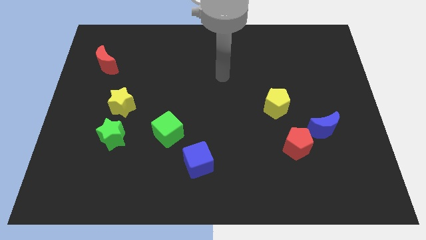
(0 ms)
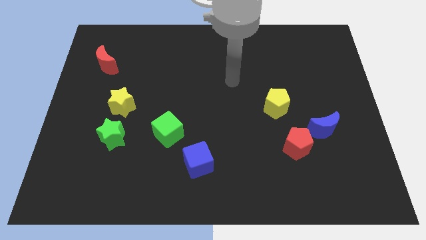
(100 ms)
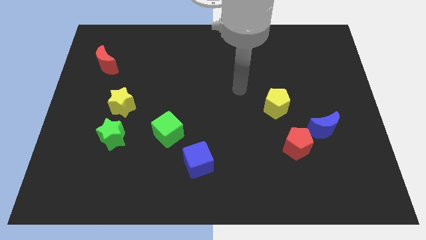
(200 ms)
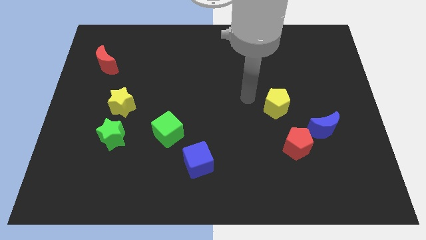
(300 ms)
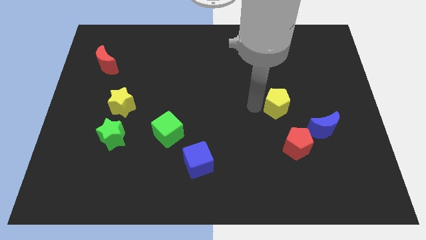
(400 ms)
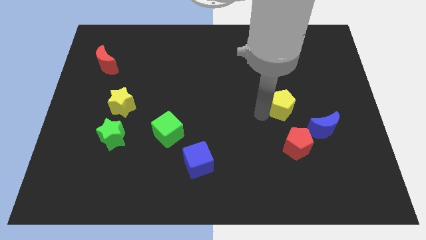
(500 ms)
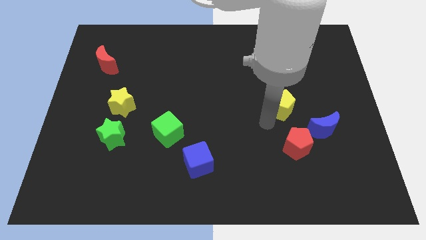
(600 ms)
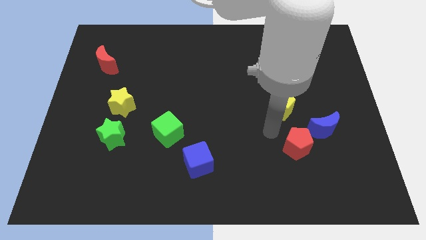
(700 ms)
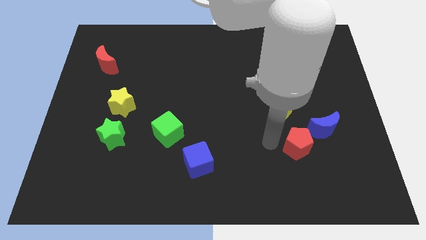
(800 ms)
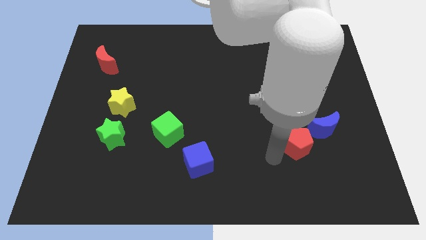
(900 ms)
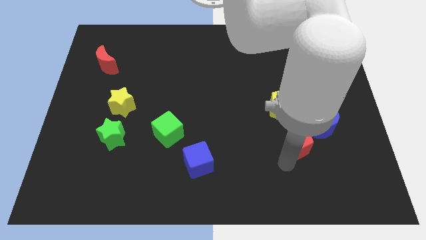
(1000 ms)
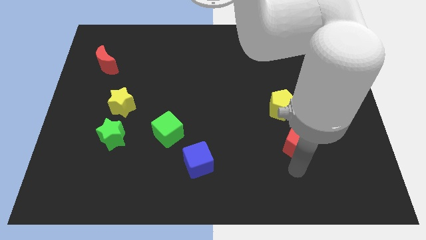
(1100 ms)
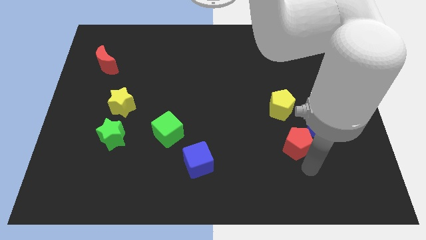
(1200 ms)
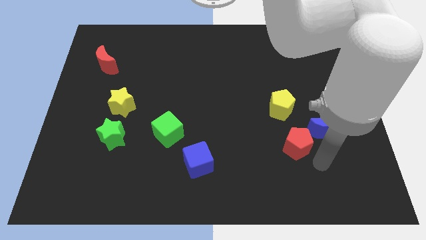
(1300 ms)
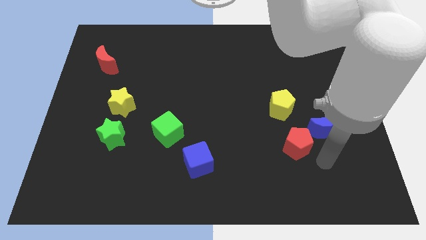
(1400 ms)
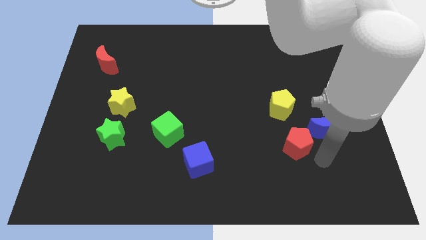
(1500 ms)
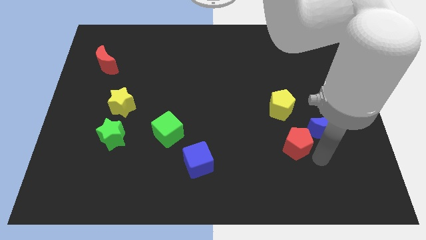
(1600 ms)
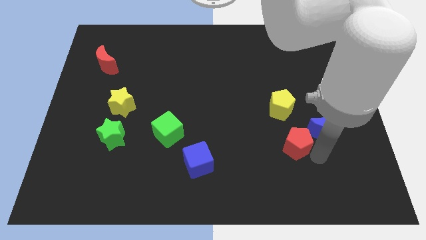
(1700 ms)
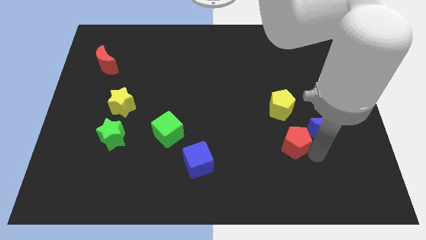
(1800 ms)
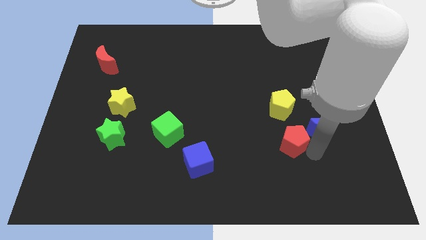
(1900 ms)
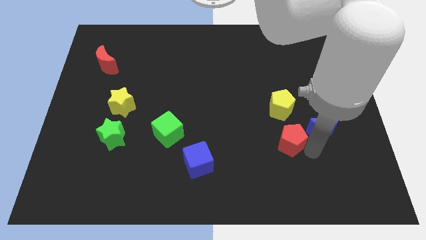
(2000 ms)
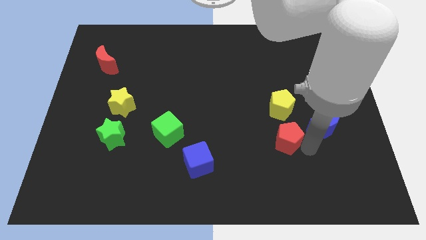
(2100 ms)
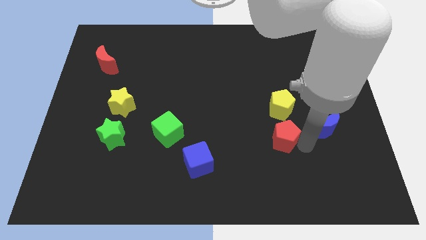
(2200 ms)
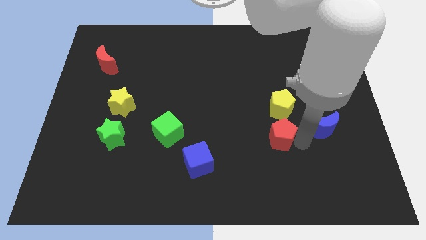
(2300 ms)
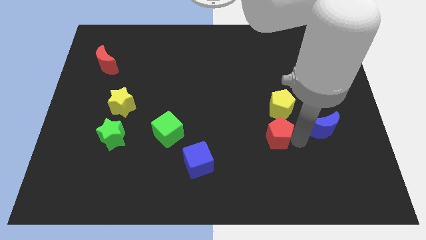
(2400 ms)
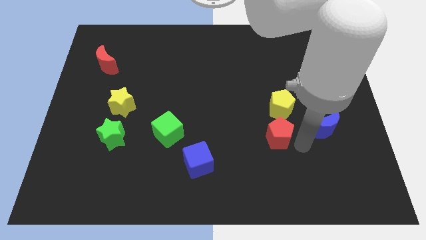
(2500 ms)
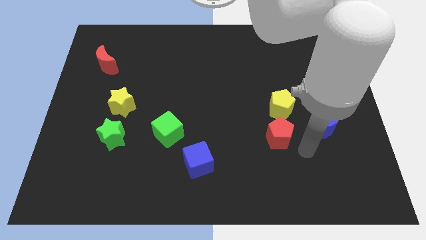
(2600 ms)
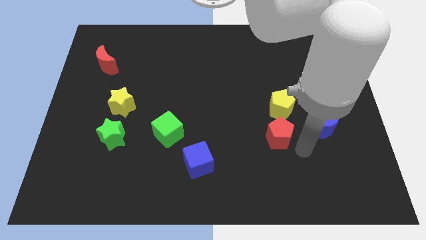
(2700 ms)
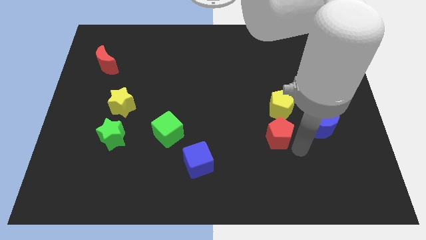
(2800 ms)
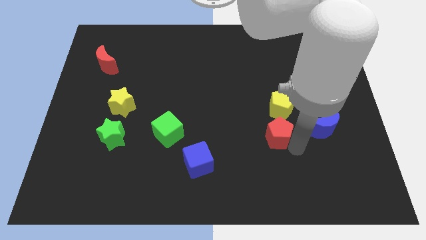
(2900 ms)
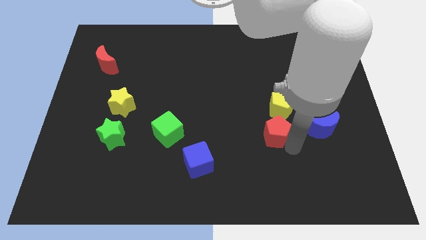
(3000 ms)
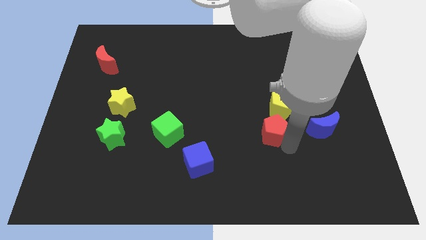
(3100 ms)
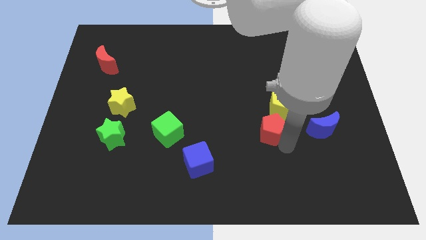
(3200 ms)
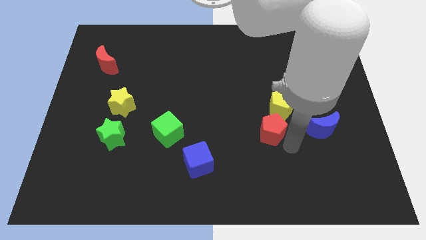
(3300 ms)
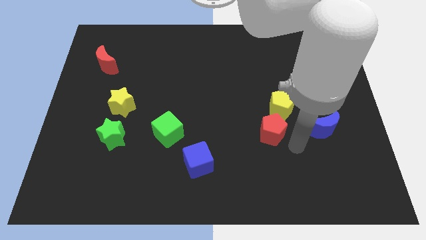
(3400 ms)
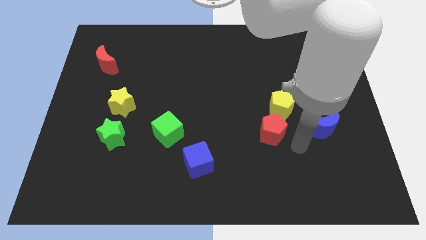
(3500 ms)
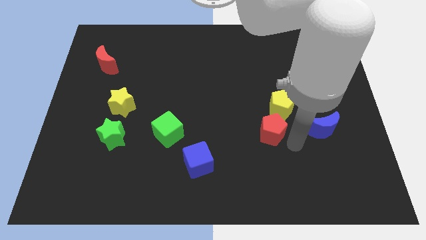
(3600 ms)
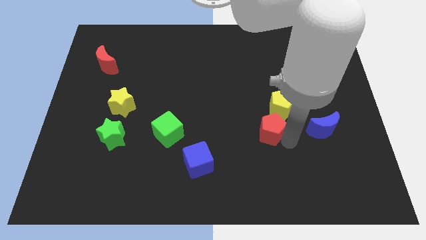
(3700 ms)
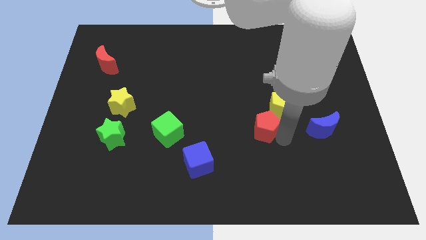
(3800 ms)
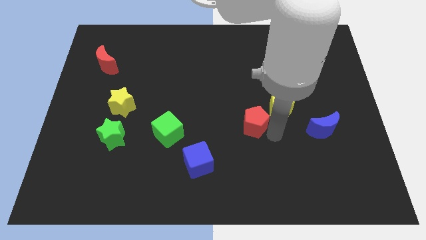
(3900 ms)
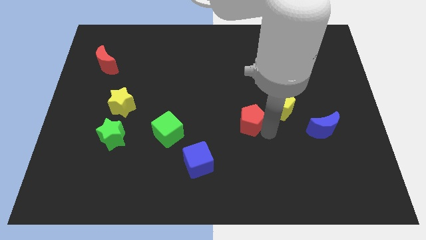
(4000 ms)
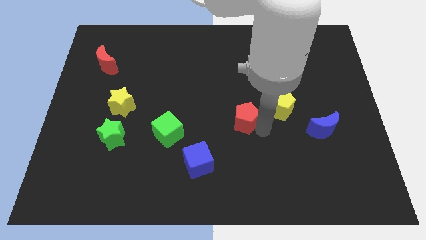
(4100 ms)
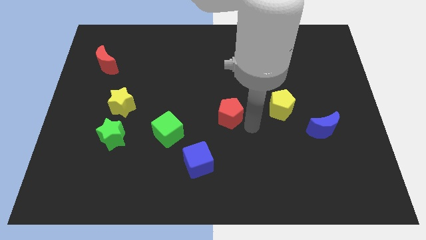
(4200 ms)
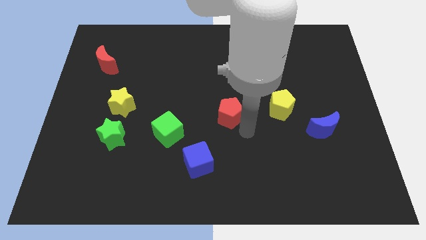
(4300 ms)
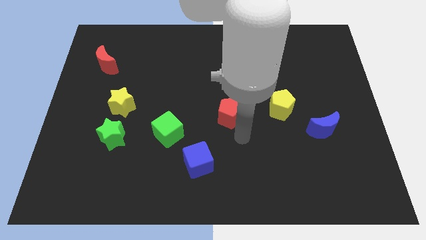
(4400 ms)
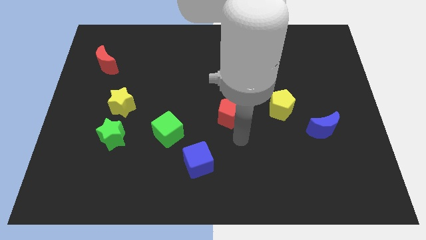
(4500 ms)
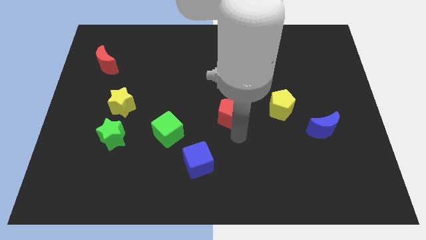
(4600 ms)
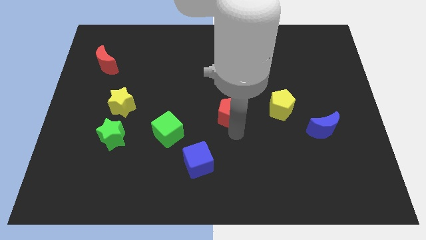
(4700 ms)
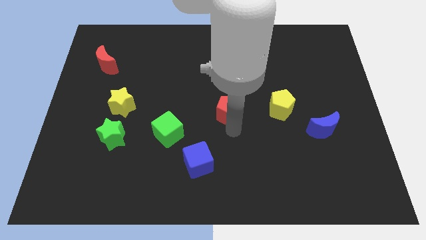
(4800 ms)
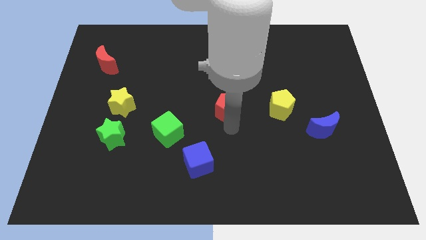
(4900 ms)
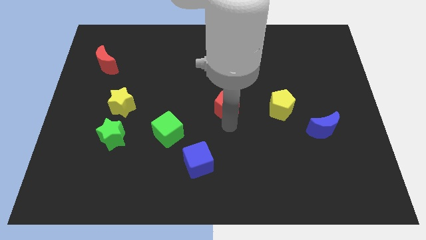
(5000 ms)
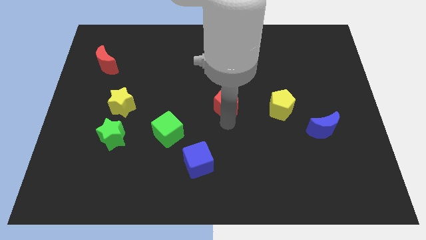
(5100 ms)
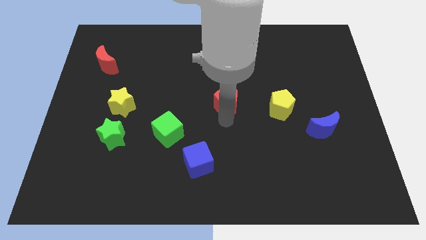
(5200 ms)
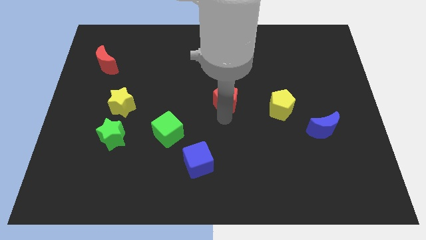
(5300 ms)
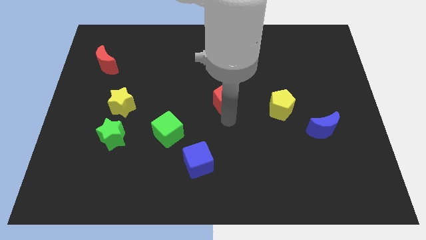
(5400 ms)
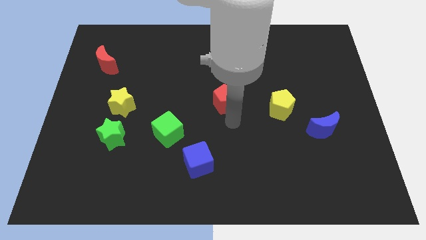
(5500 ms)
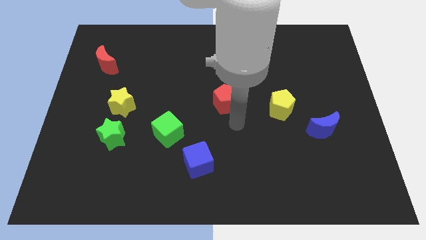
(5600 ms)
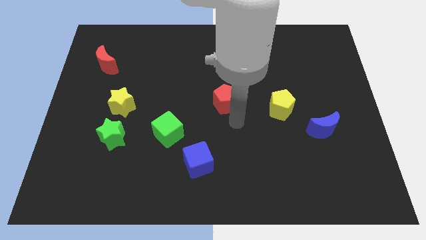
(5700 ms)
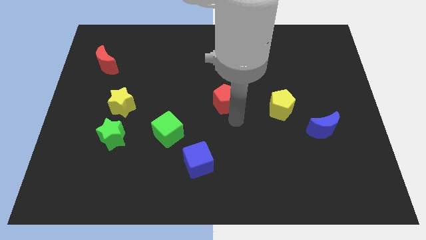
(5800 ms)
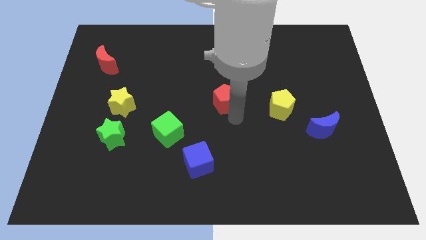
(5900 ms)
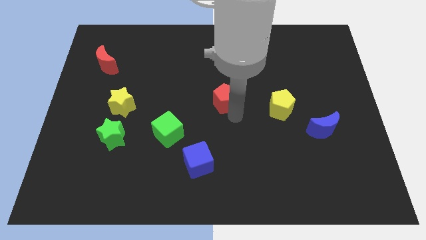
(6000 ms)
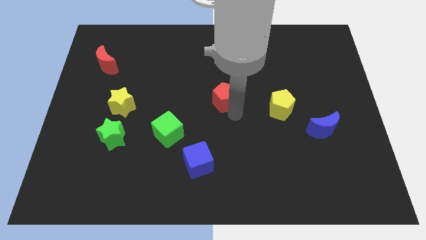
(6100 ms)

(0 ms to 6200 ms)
slide the red pentagon diagonally up and left

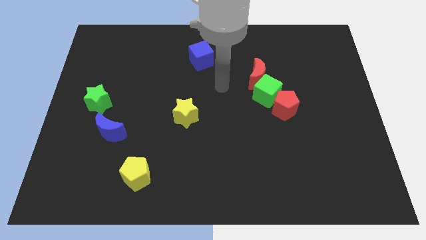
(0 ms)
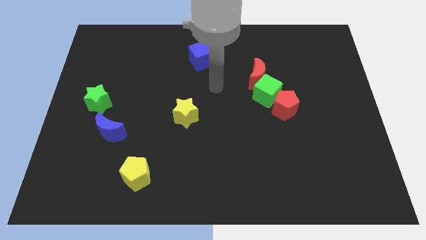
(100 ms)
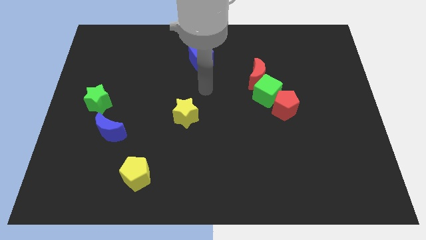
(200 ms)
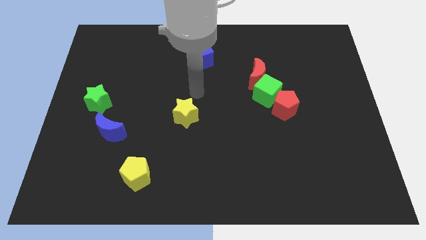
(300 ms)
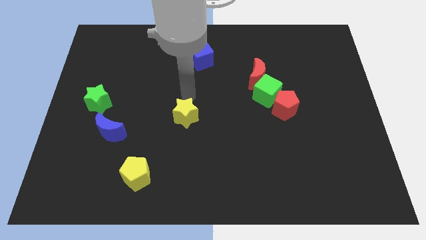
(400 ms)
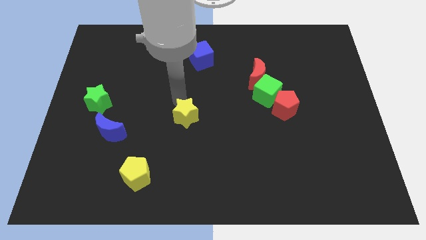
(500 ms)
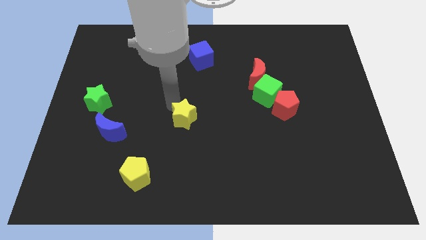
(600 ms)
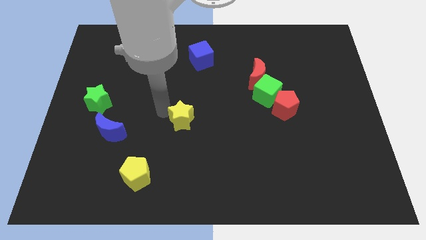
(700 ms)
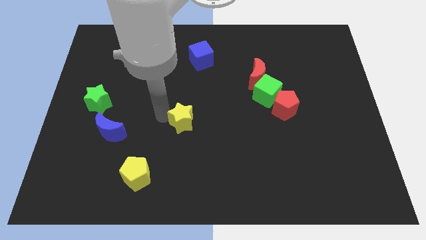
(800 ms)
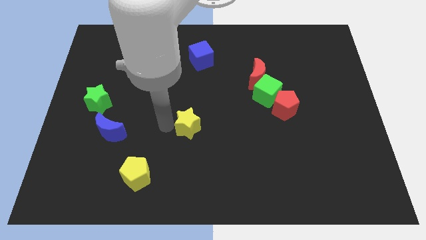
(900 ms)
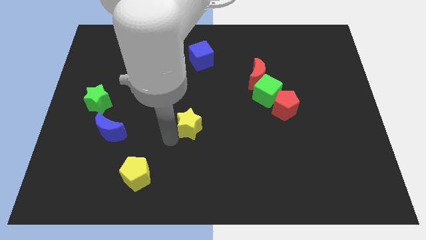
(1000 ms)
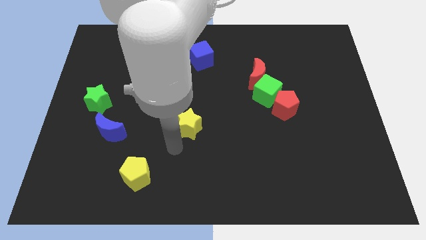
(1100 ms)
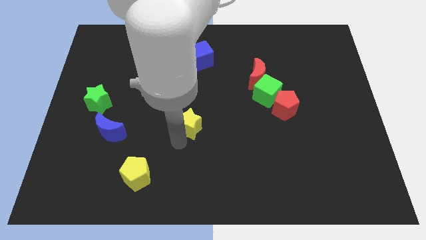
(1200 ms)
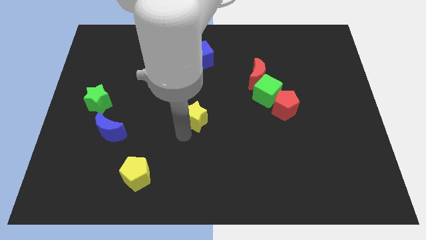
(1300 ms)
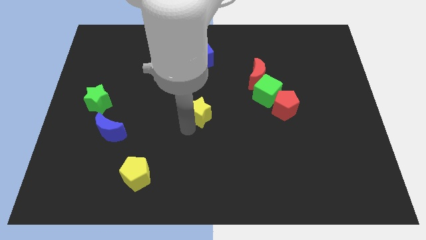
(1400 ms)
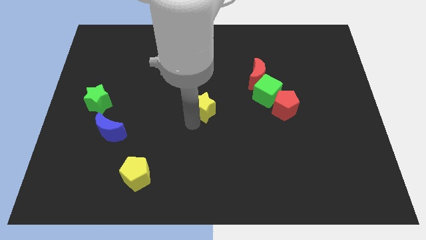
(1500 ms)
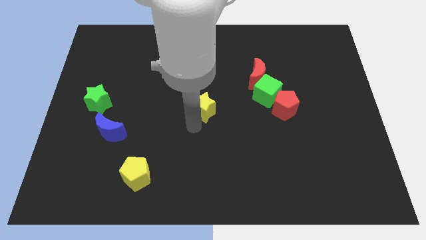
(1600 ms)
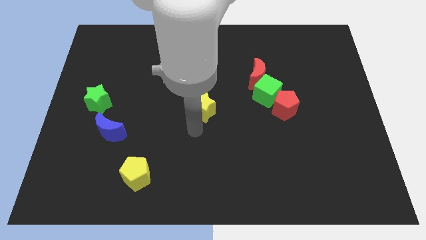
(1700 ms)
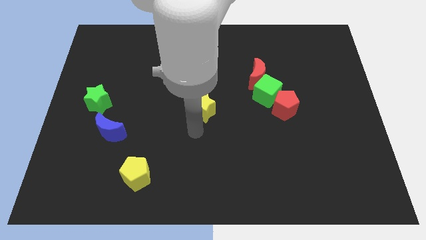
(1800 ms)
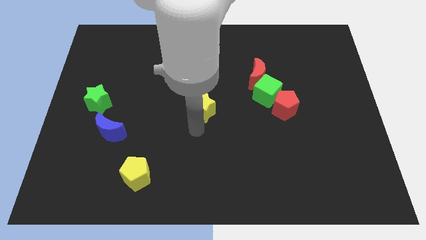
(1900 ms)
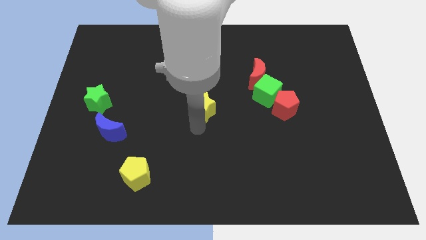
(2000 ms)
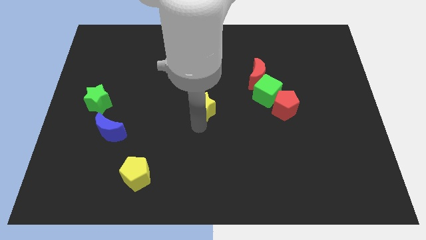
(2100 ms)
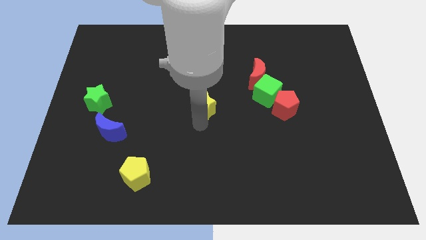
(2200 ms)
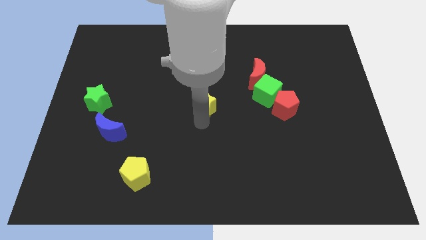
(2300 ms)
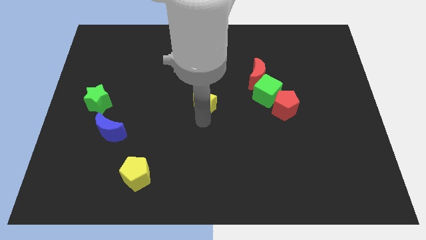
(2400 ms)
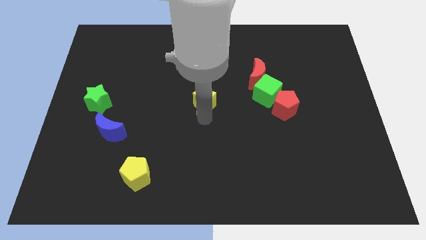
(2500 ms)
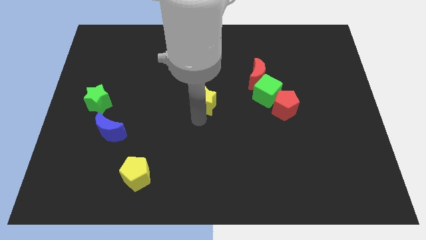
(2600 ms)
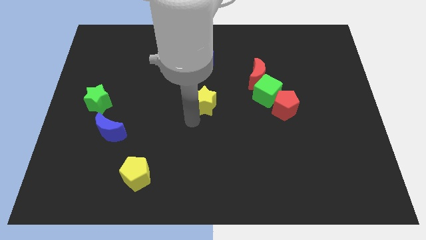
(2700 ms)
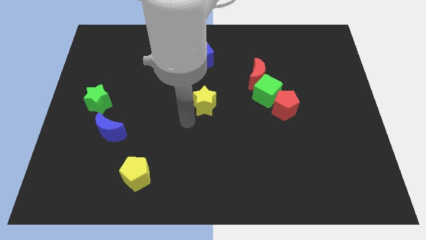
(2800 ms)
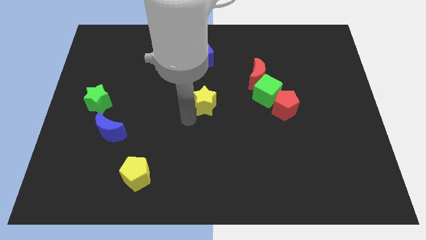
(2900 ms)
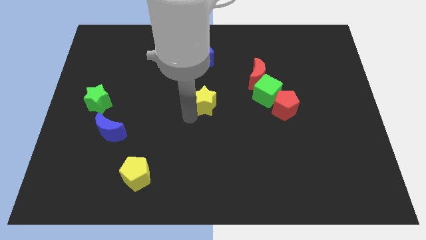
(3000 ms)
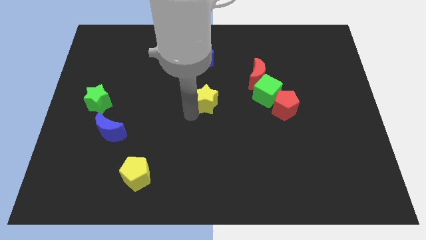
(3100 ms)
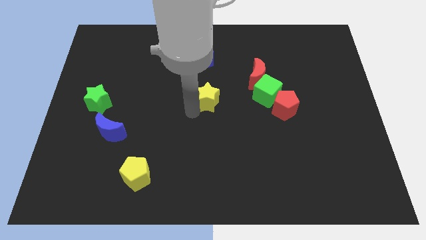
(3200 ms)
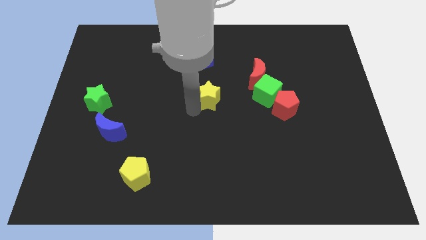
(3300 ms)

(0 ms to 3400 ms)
slide the yellow star diagonally upwards and right a little bit
